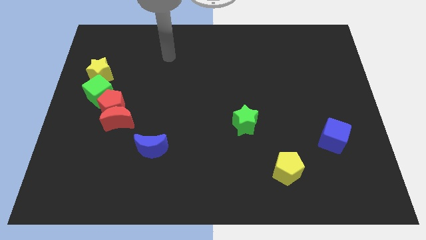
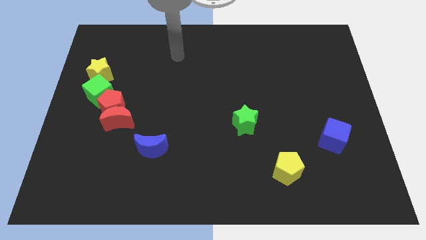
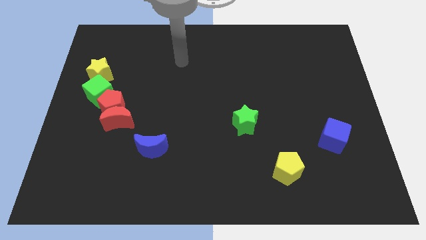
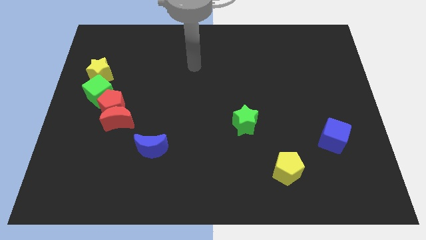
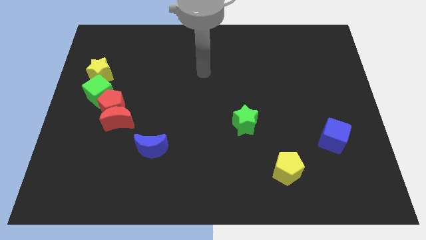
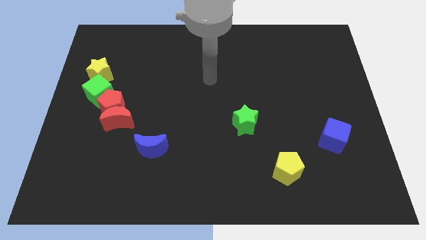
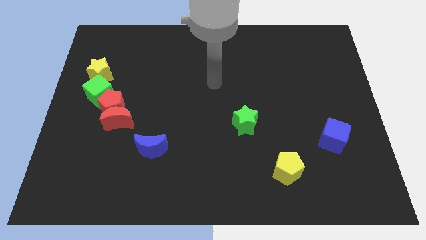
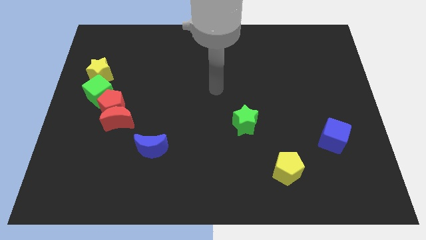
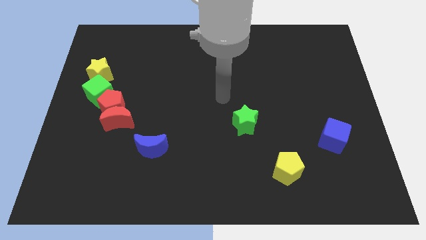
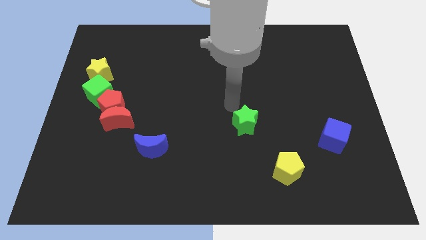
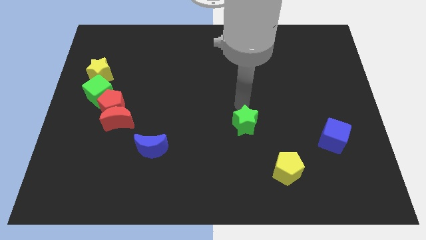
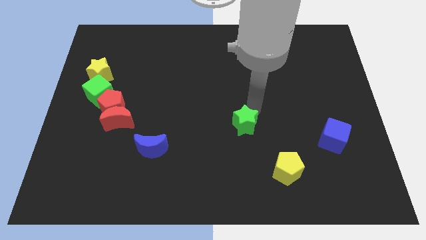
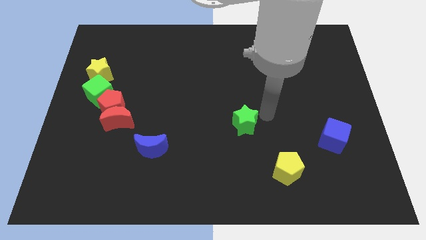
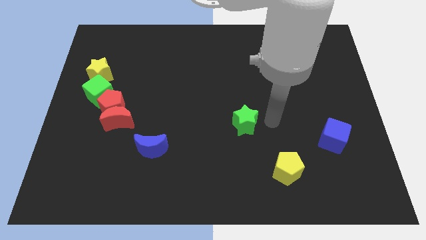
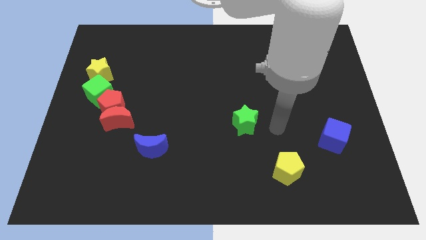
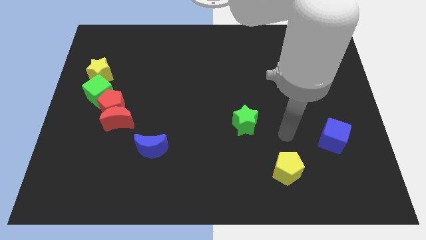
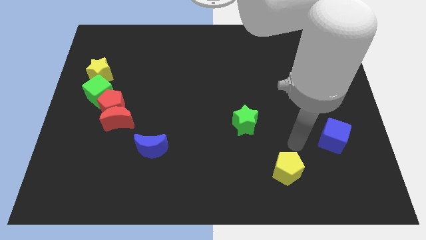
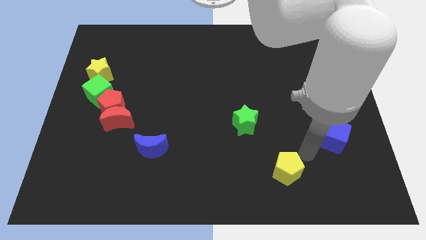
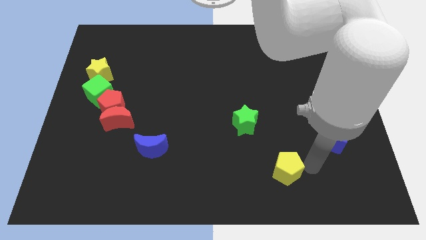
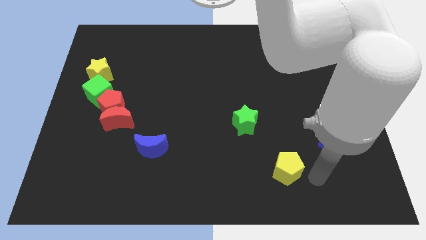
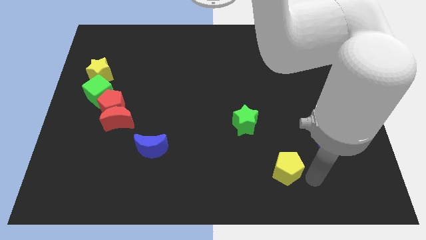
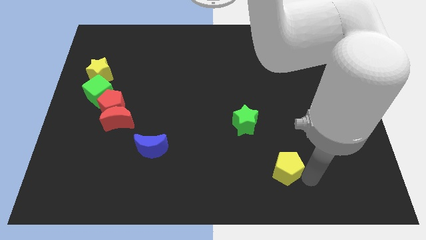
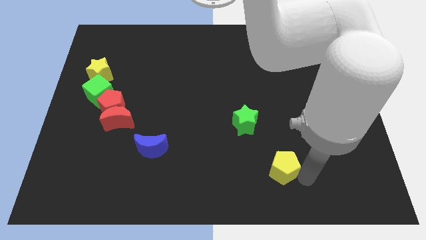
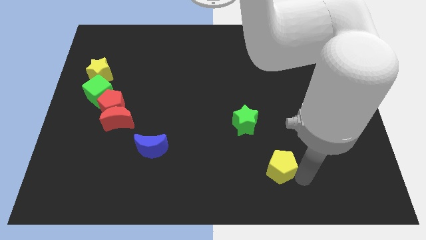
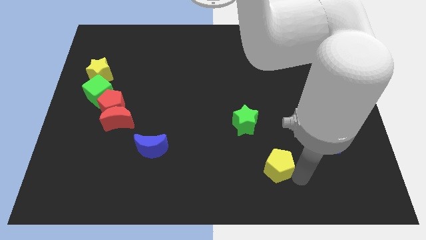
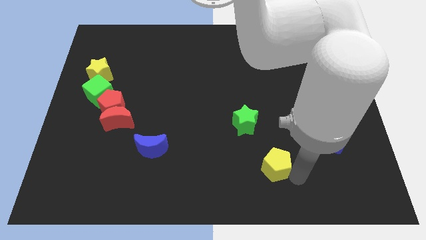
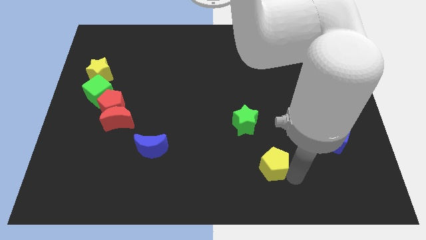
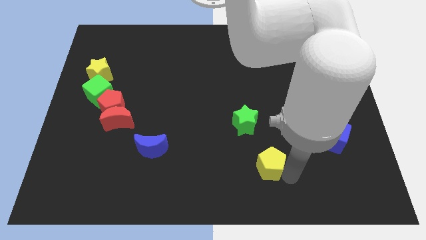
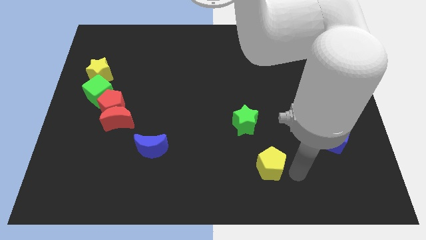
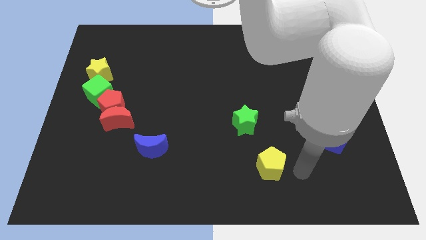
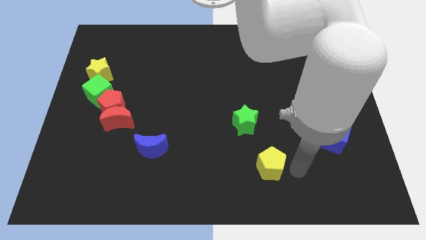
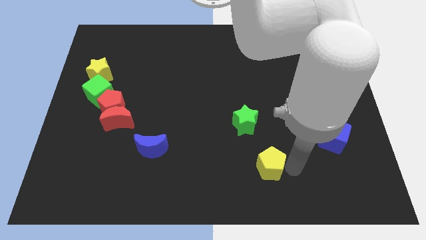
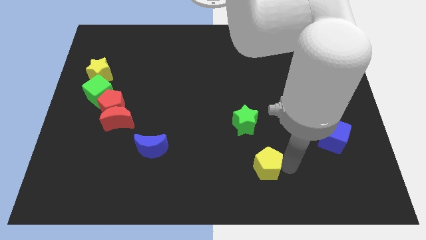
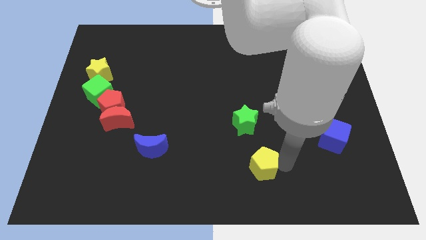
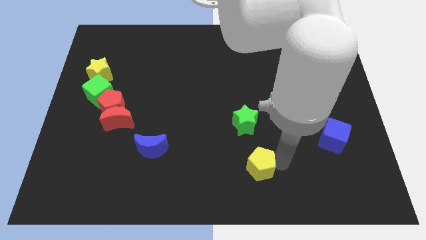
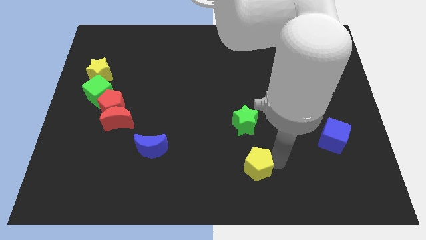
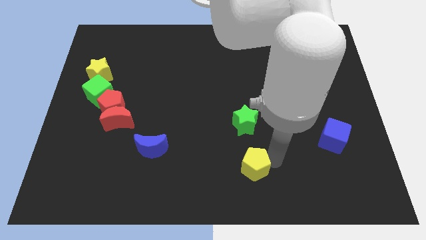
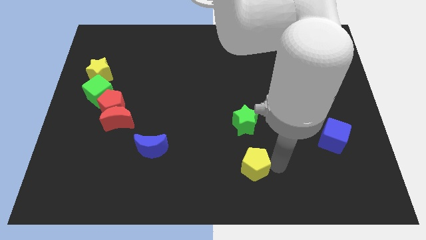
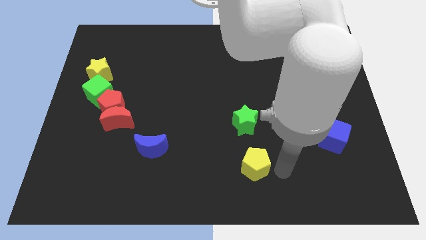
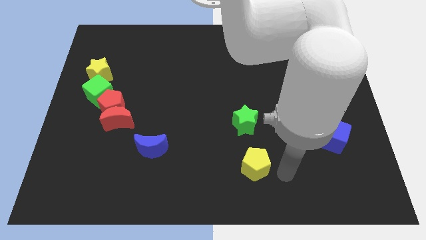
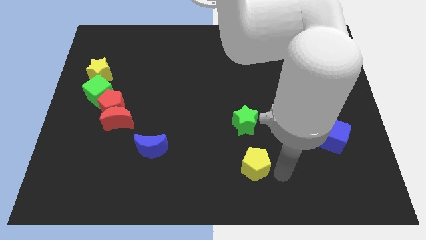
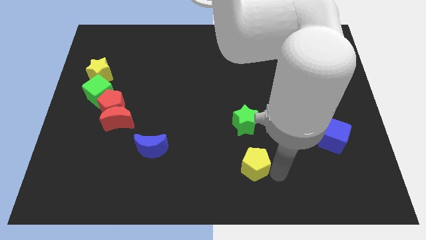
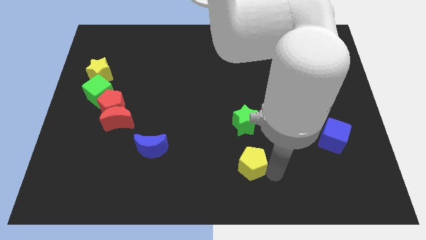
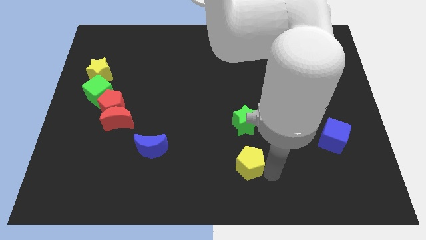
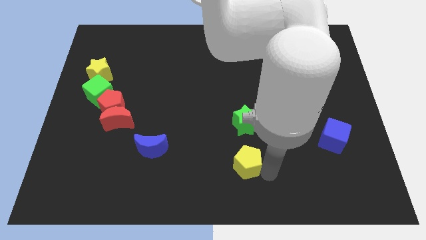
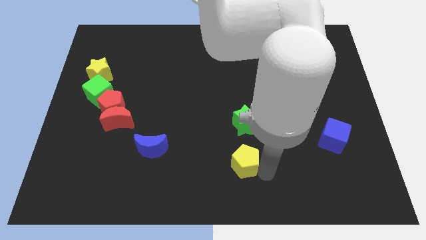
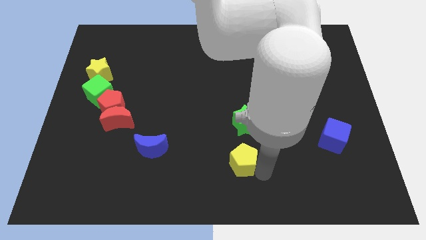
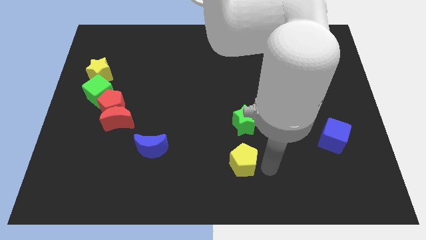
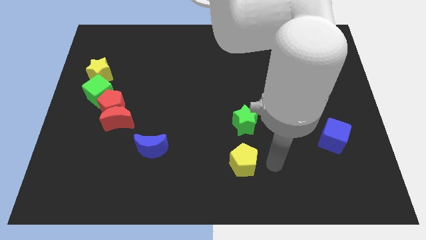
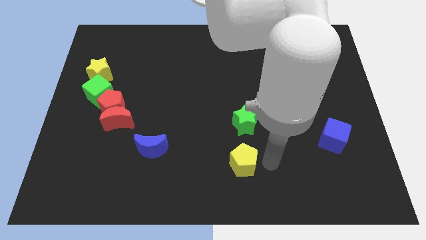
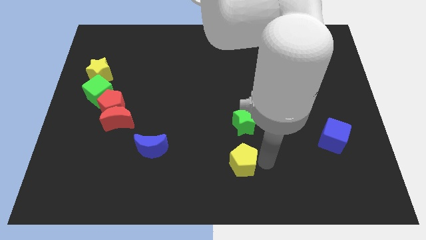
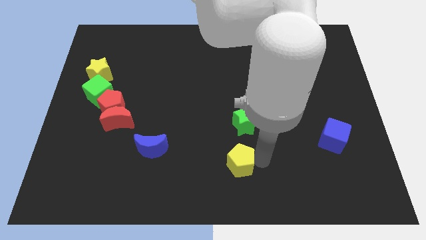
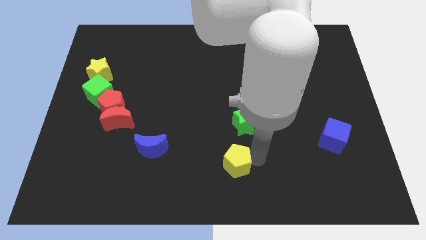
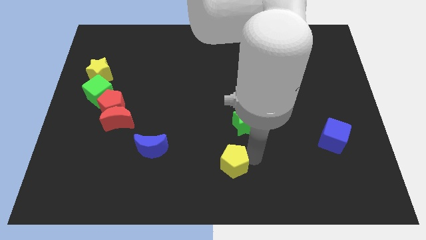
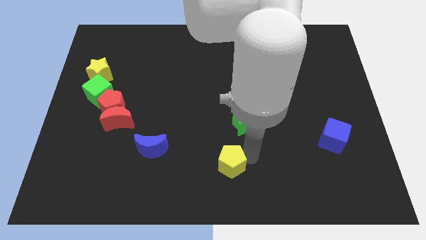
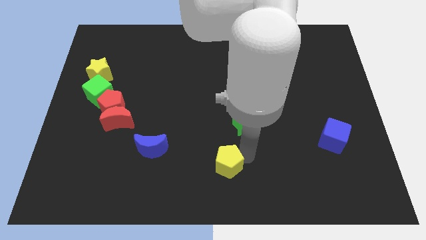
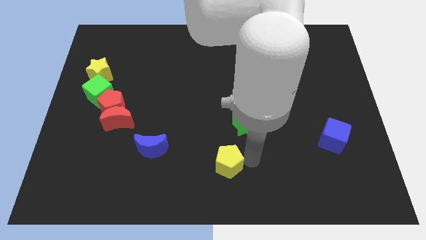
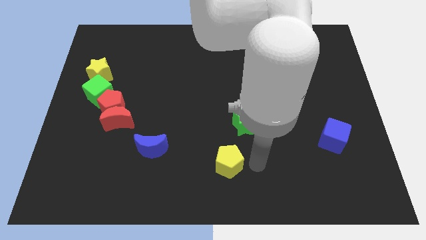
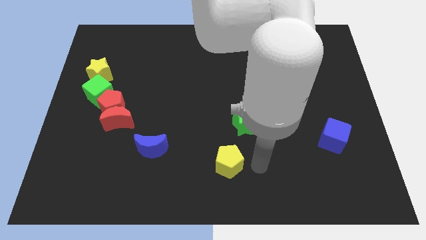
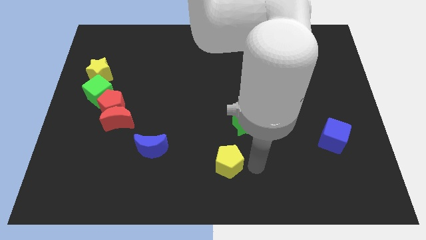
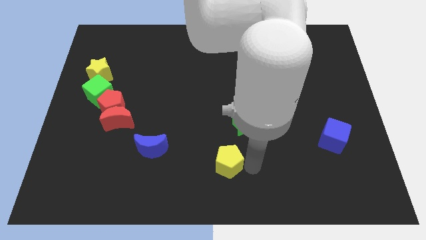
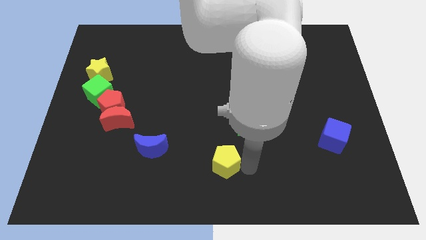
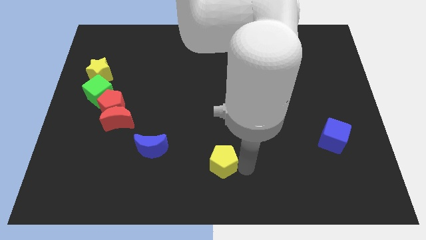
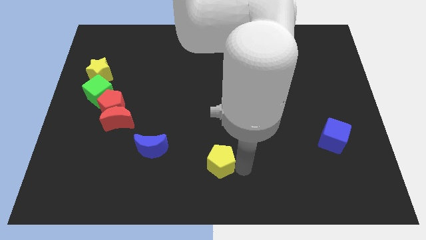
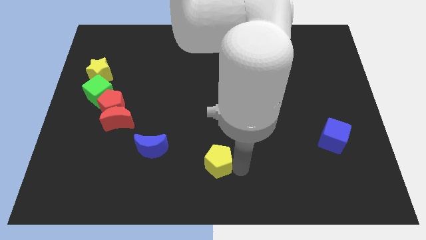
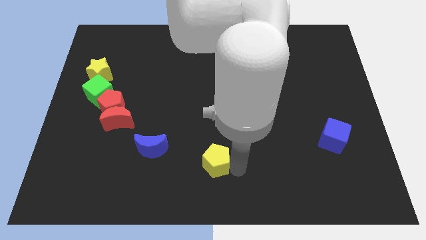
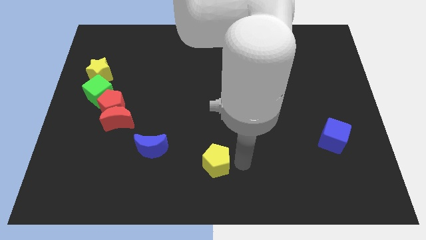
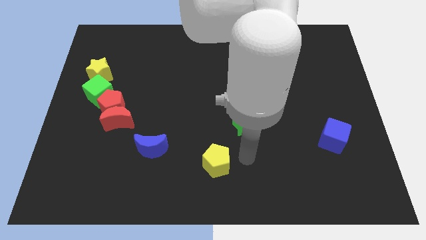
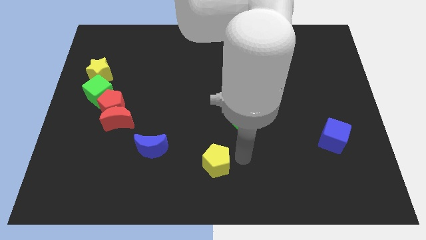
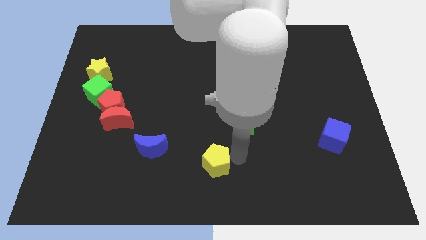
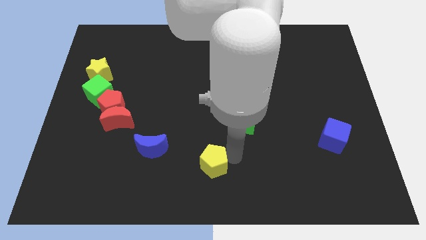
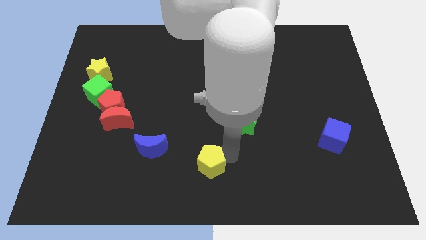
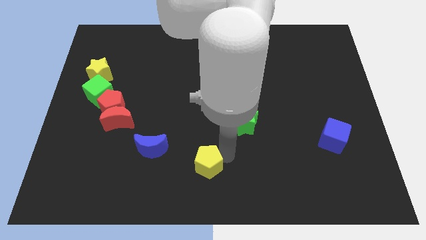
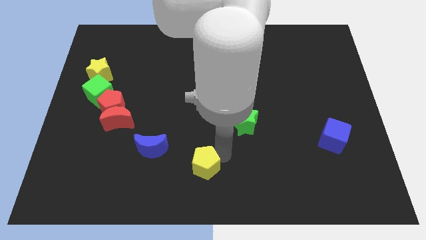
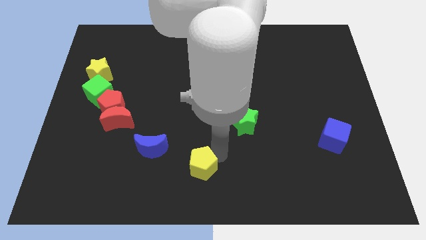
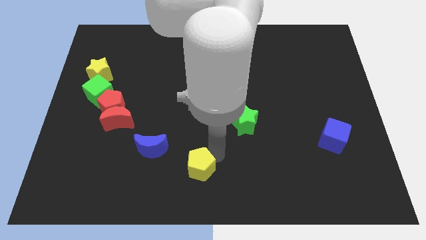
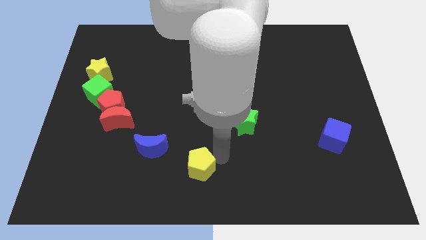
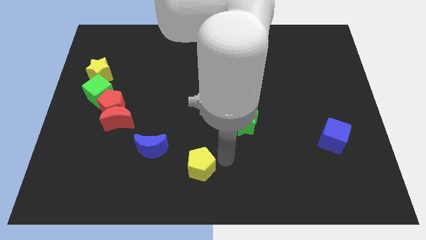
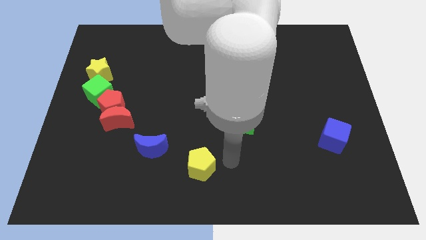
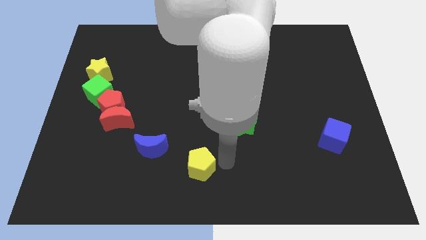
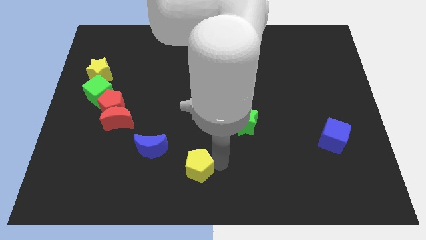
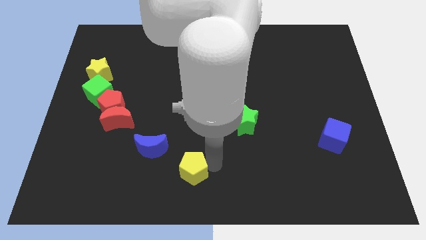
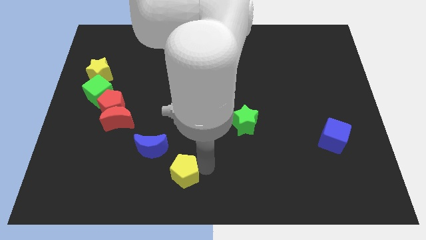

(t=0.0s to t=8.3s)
move the yellow pentagon to the left
